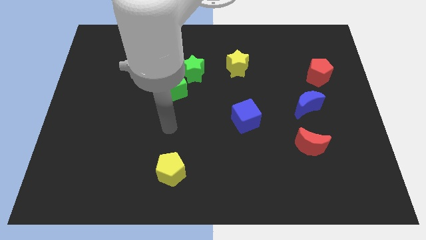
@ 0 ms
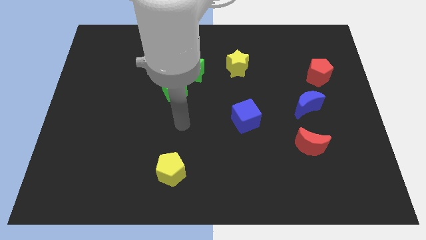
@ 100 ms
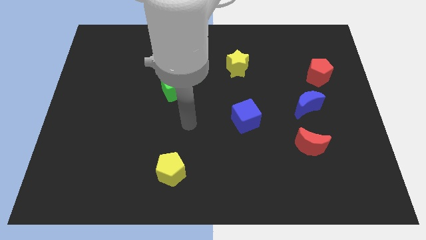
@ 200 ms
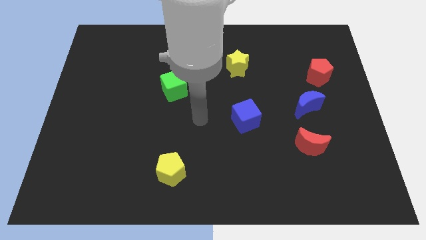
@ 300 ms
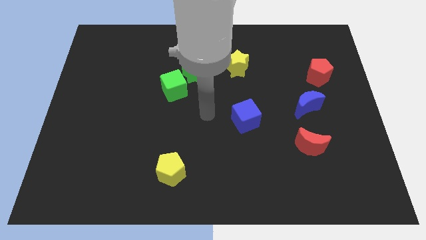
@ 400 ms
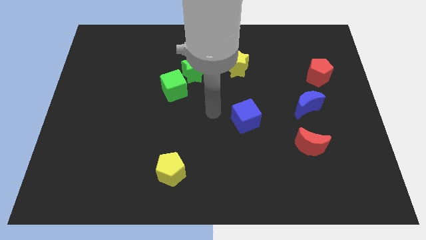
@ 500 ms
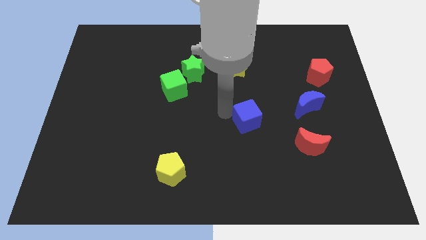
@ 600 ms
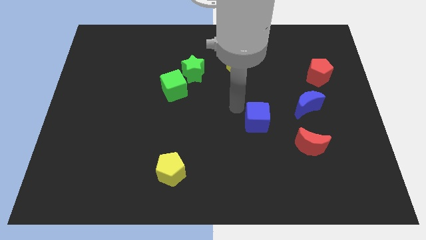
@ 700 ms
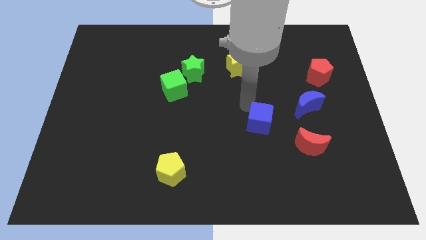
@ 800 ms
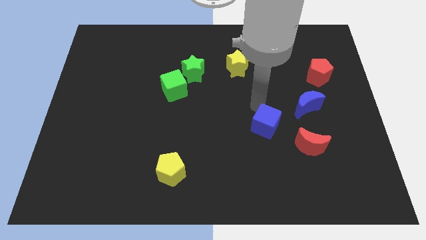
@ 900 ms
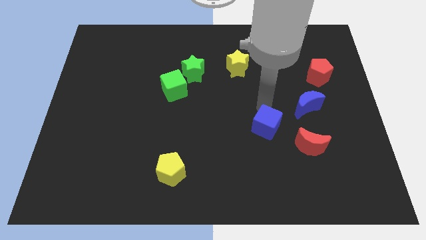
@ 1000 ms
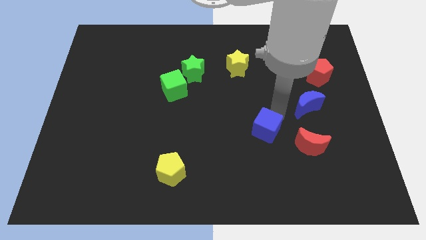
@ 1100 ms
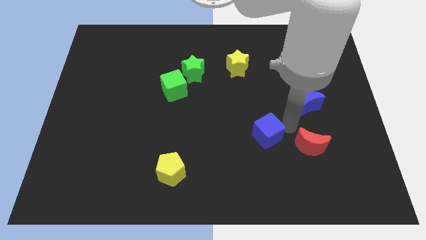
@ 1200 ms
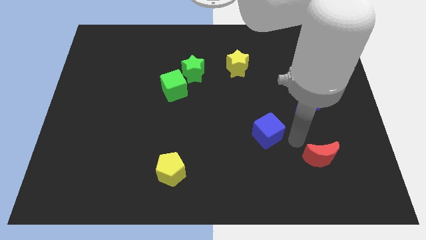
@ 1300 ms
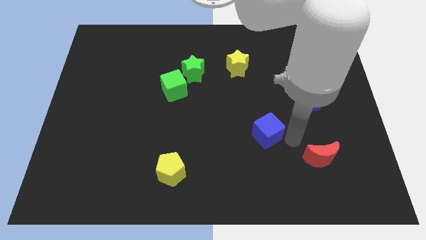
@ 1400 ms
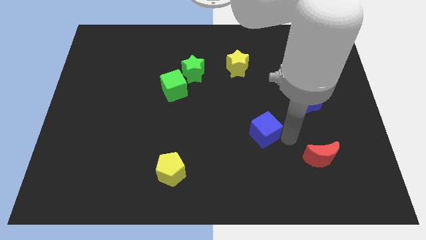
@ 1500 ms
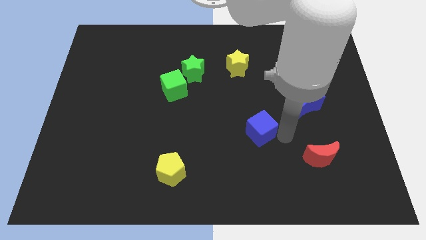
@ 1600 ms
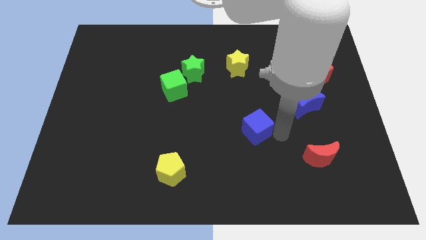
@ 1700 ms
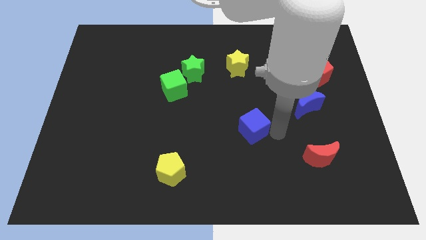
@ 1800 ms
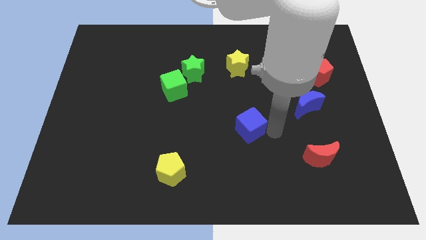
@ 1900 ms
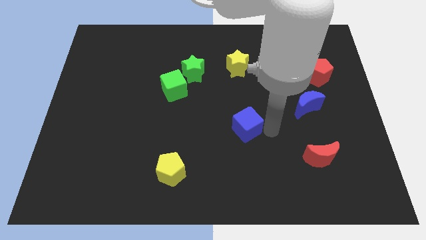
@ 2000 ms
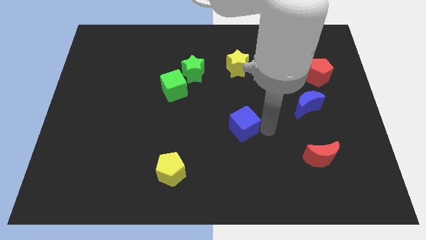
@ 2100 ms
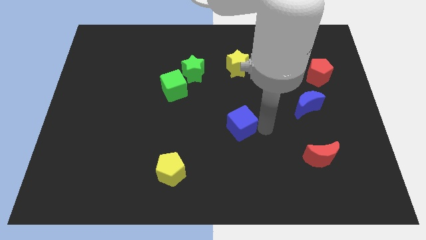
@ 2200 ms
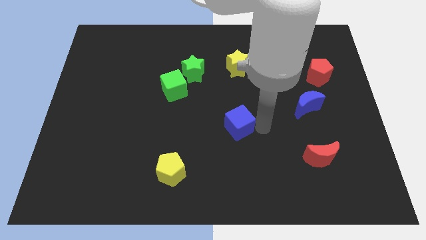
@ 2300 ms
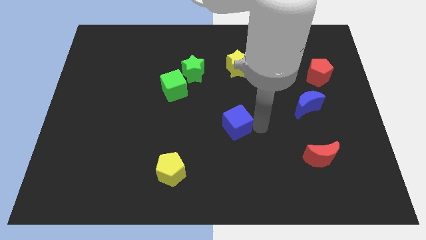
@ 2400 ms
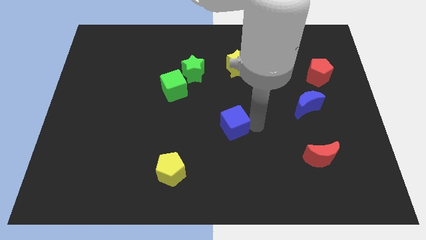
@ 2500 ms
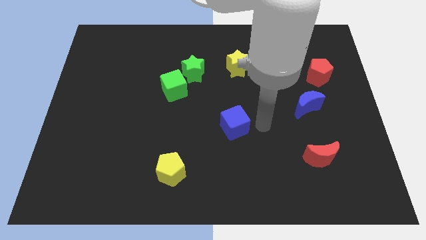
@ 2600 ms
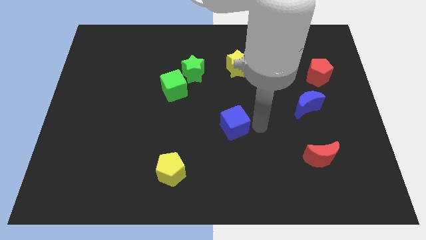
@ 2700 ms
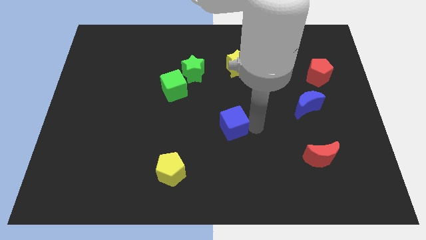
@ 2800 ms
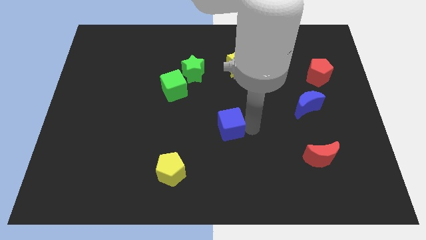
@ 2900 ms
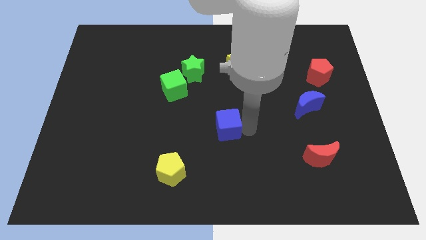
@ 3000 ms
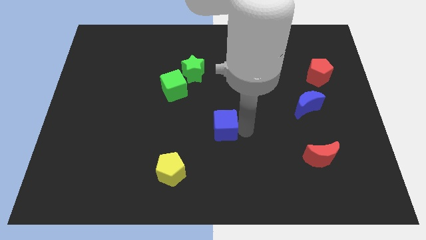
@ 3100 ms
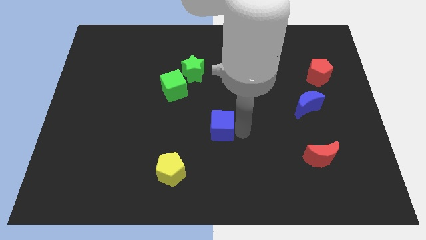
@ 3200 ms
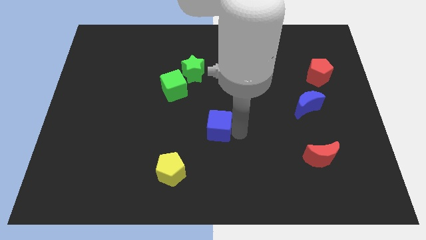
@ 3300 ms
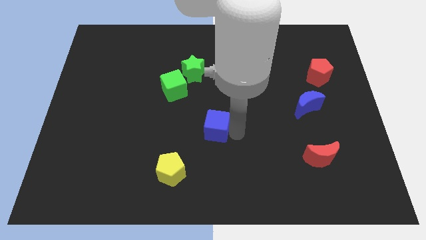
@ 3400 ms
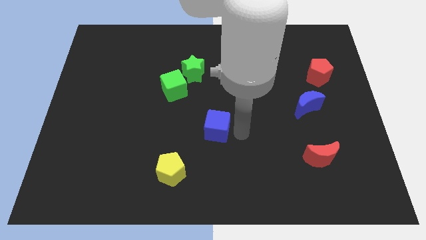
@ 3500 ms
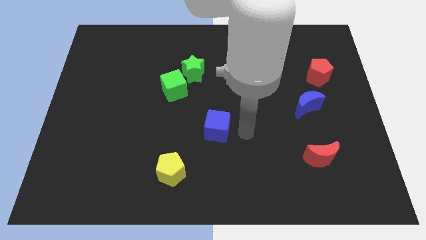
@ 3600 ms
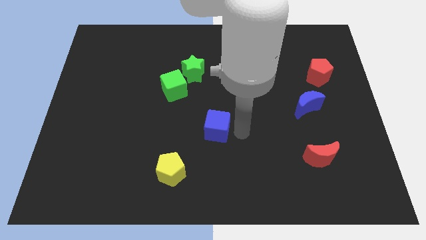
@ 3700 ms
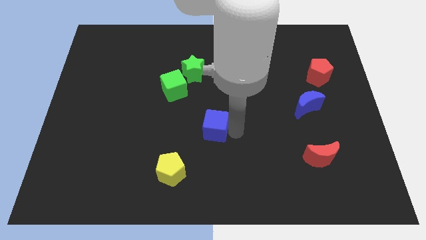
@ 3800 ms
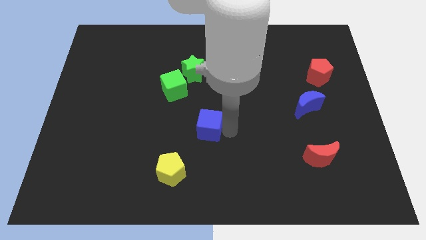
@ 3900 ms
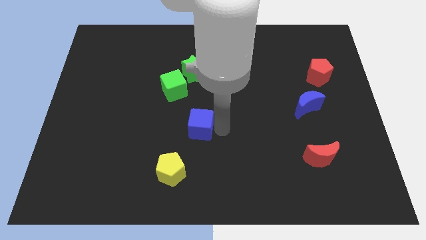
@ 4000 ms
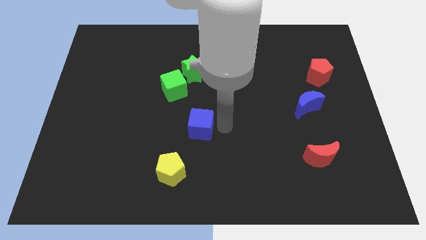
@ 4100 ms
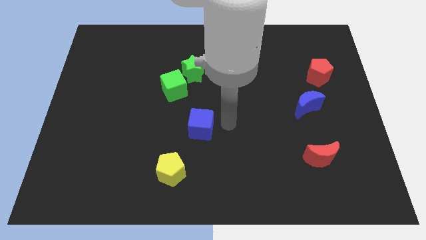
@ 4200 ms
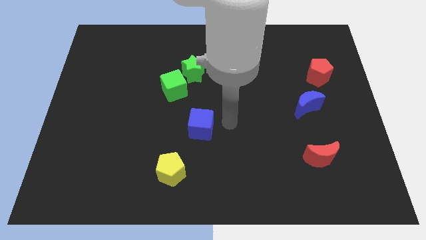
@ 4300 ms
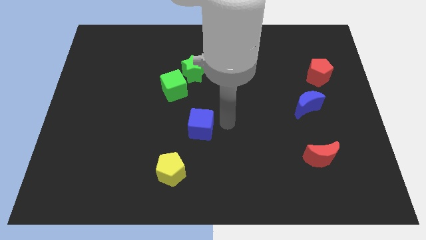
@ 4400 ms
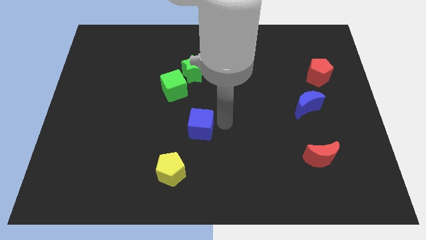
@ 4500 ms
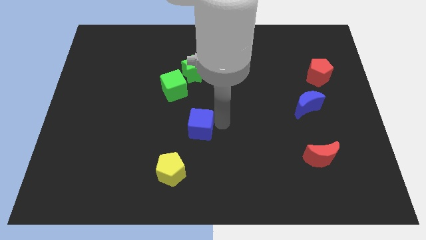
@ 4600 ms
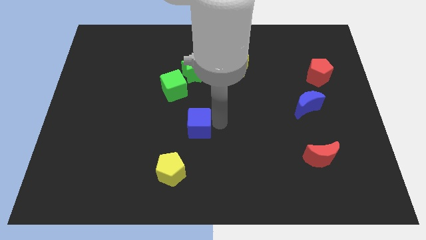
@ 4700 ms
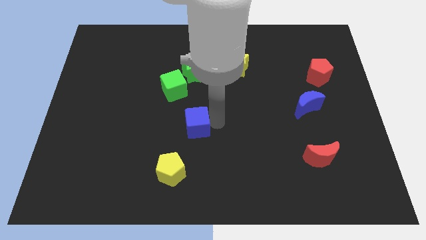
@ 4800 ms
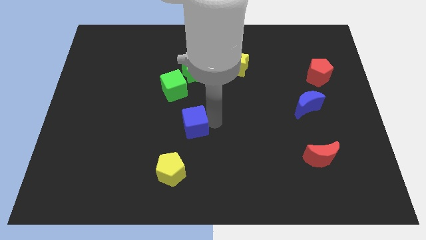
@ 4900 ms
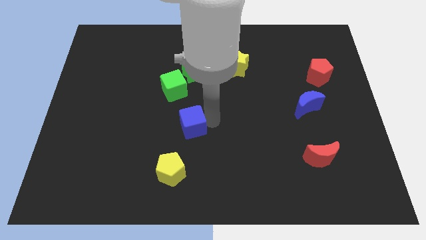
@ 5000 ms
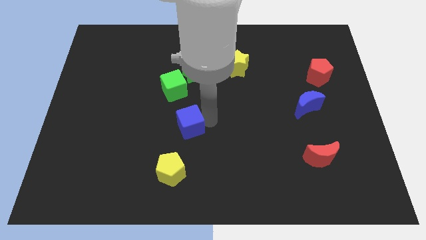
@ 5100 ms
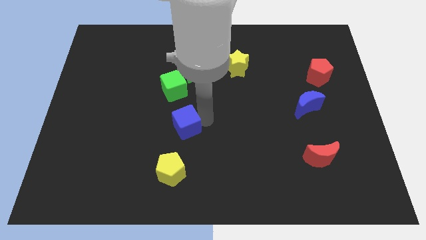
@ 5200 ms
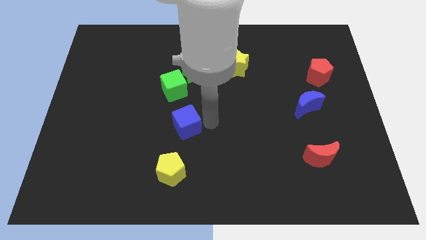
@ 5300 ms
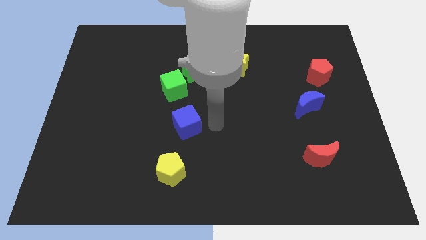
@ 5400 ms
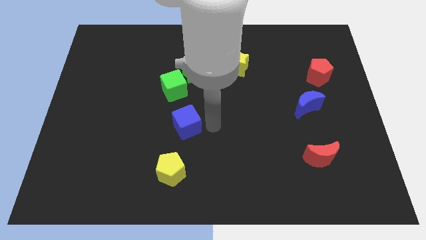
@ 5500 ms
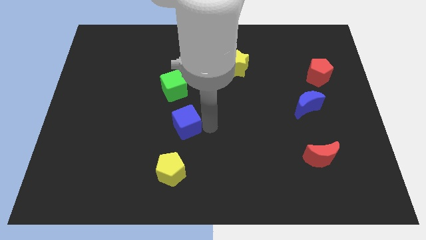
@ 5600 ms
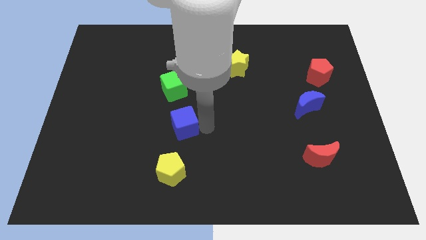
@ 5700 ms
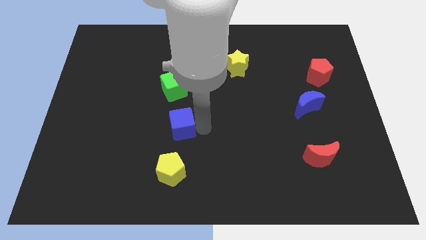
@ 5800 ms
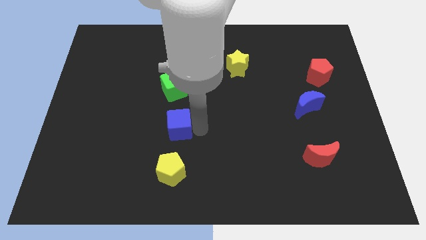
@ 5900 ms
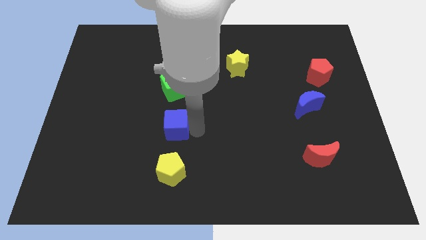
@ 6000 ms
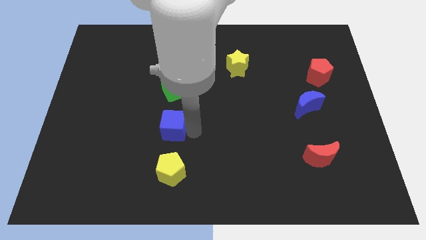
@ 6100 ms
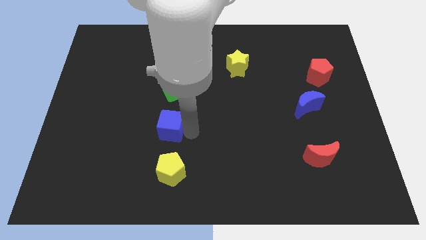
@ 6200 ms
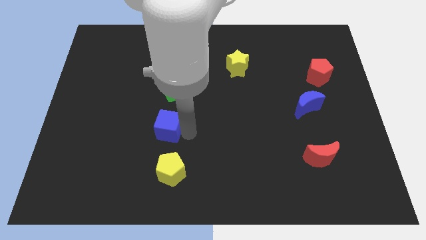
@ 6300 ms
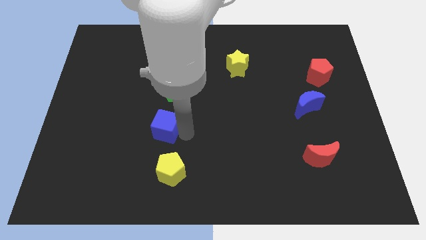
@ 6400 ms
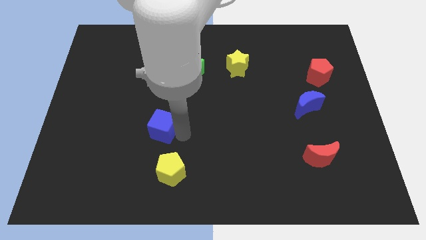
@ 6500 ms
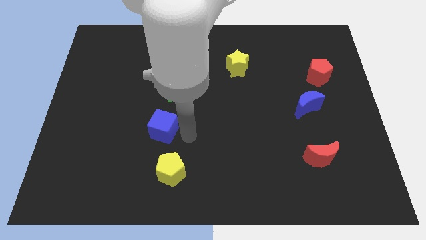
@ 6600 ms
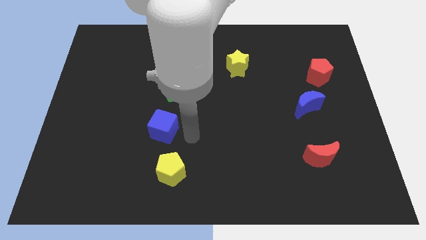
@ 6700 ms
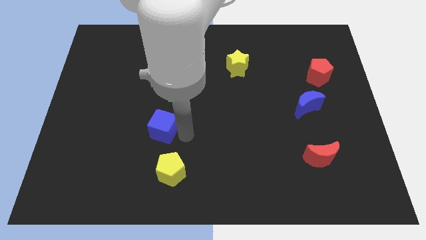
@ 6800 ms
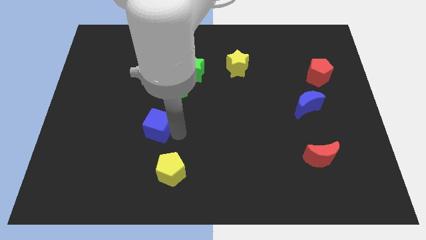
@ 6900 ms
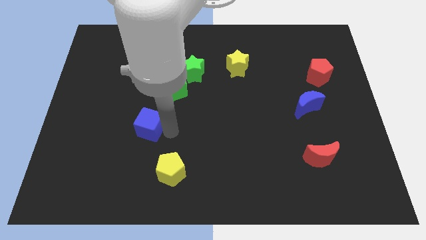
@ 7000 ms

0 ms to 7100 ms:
move the blue cube left

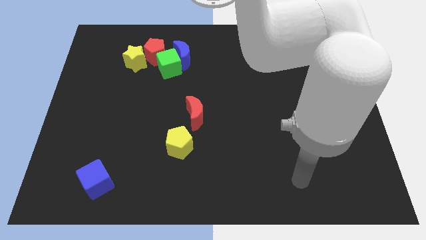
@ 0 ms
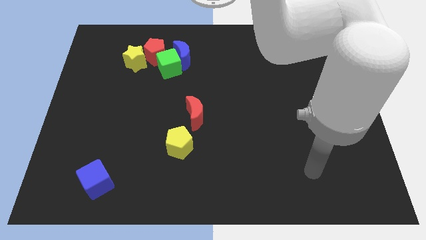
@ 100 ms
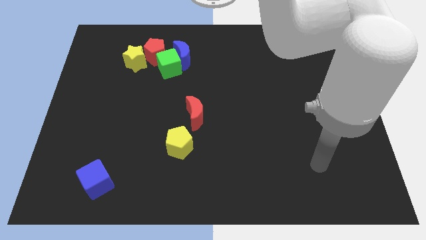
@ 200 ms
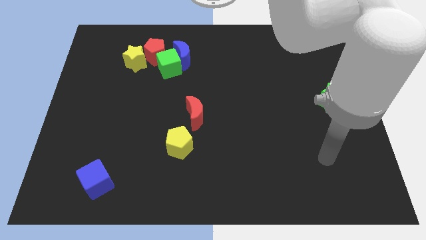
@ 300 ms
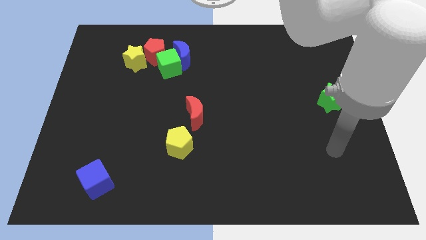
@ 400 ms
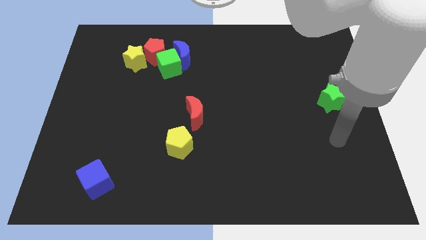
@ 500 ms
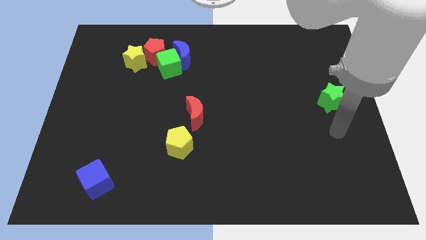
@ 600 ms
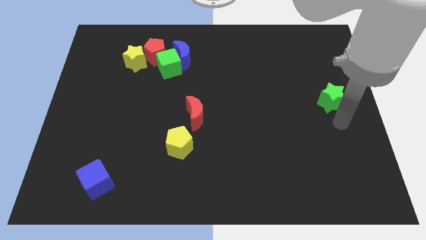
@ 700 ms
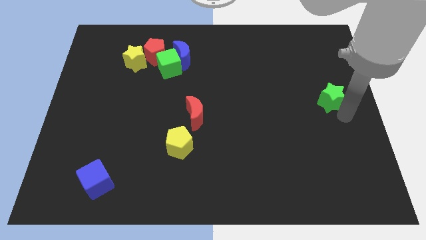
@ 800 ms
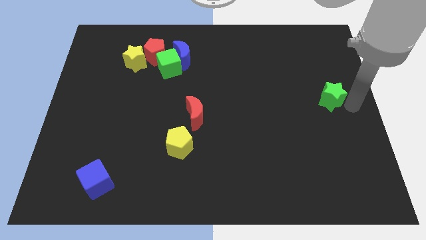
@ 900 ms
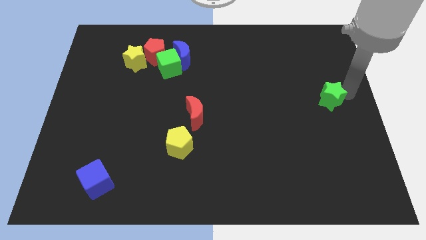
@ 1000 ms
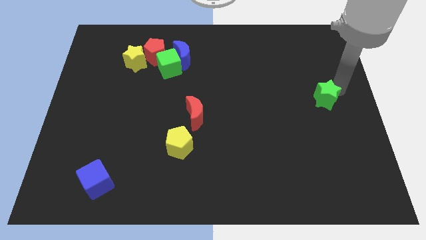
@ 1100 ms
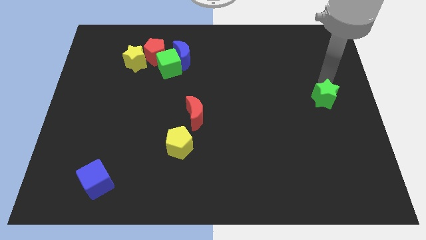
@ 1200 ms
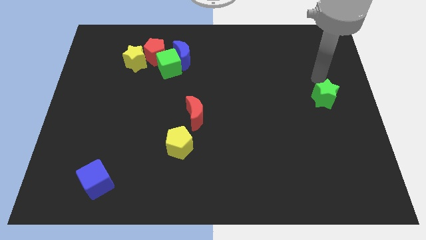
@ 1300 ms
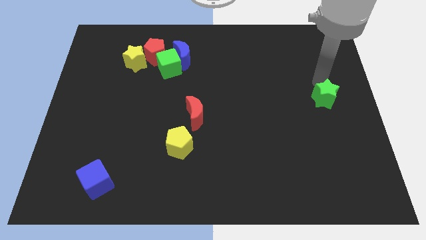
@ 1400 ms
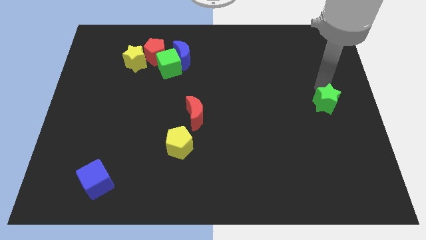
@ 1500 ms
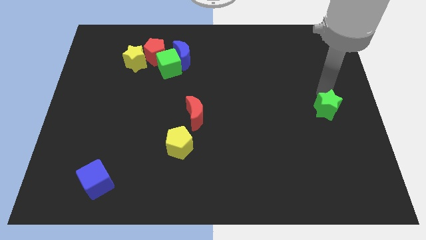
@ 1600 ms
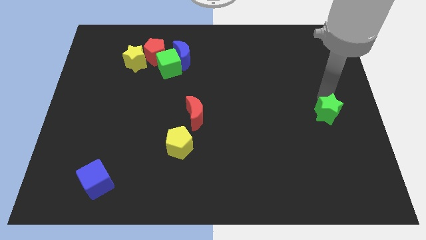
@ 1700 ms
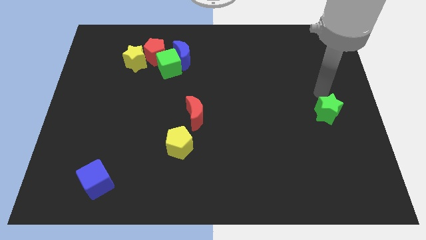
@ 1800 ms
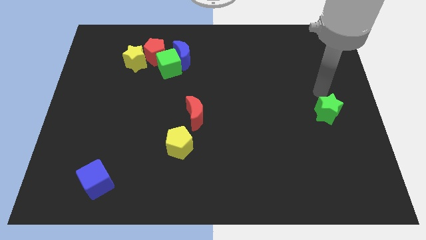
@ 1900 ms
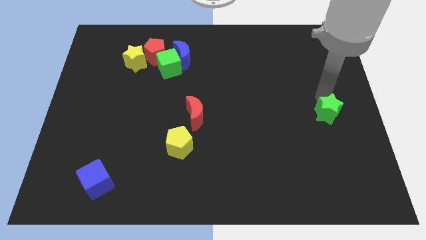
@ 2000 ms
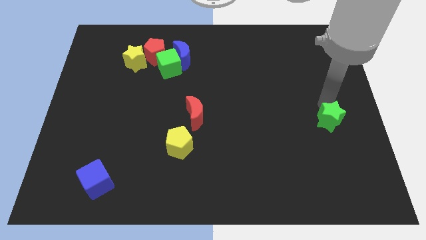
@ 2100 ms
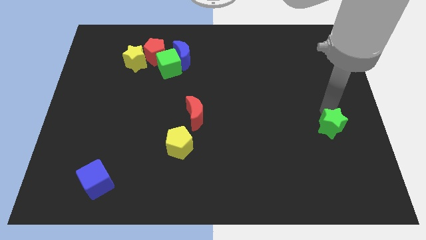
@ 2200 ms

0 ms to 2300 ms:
slide the green star somewhat downwards
